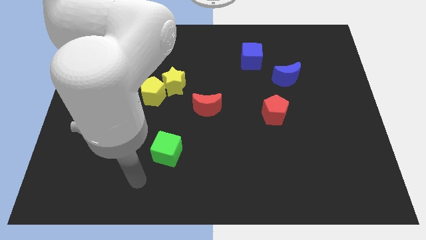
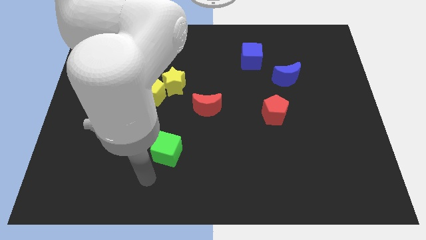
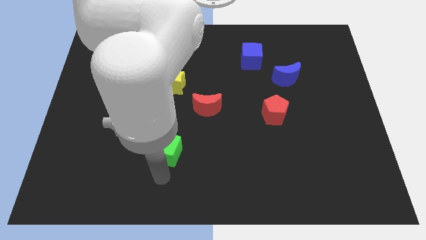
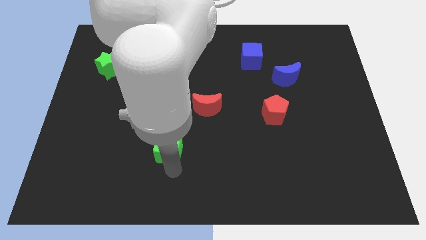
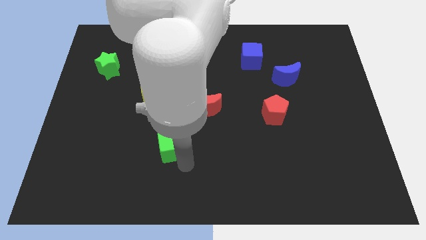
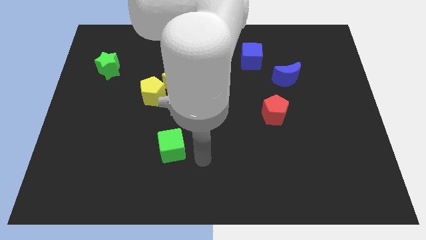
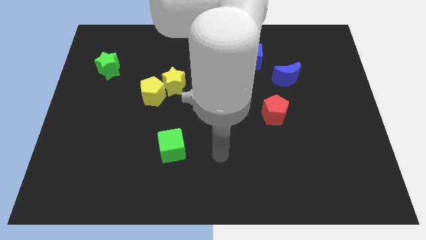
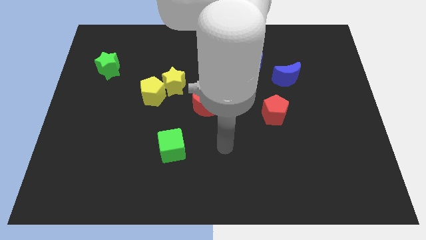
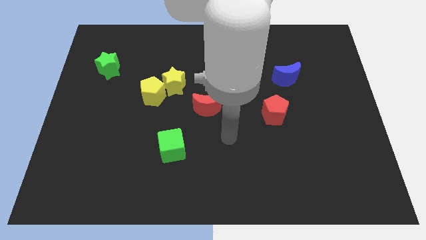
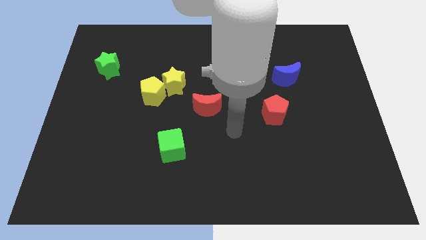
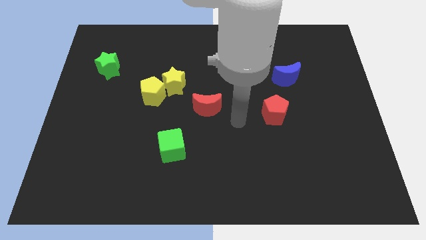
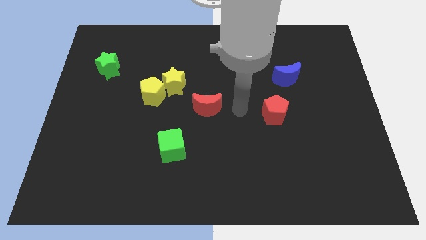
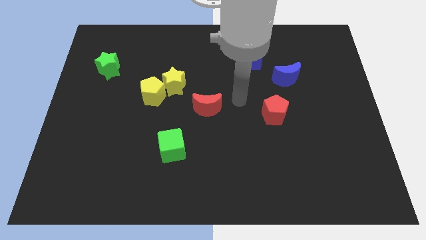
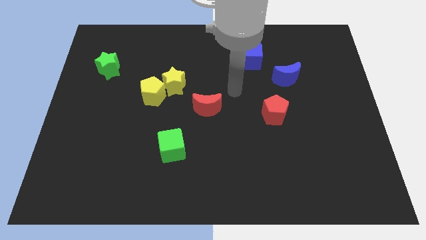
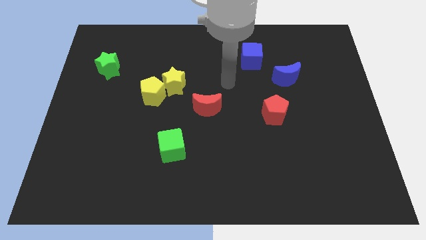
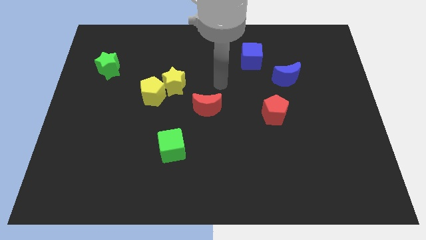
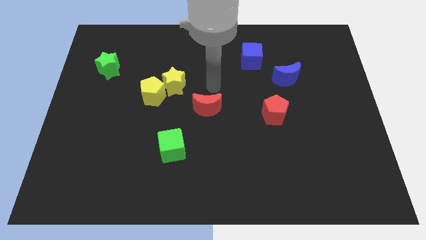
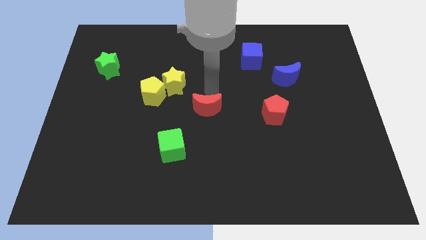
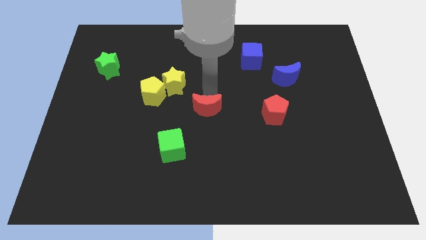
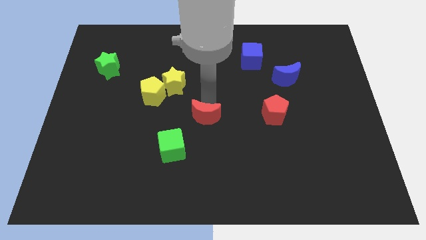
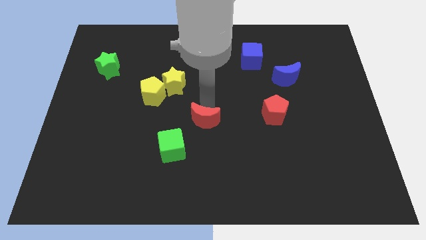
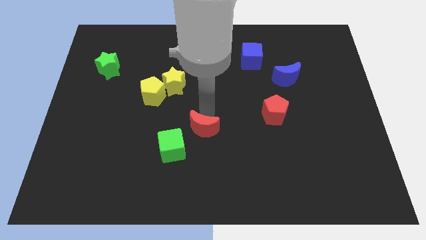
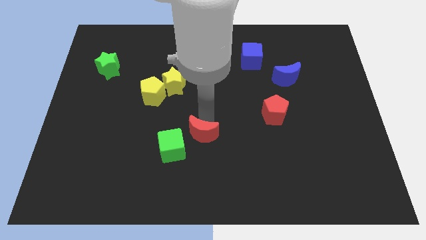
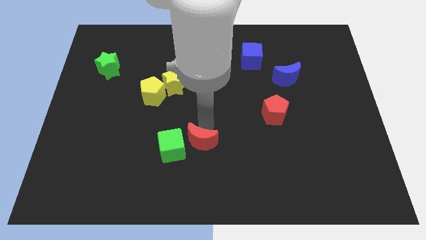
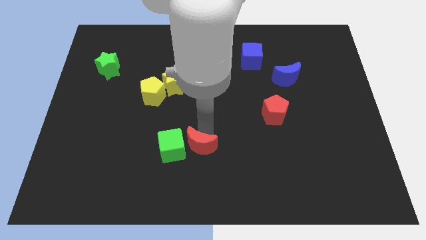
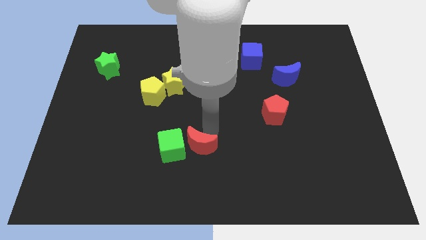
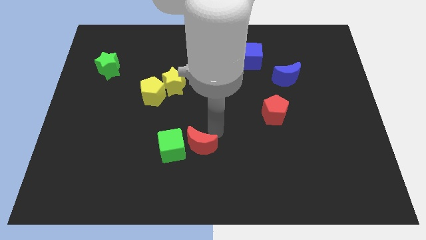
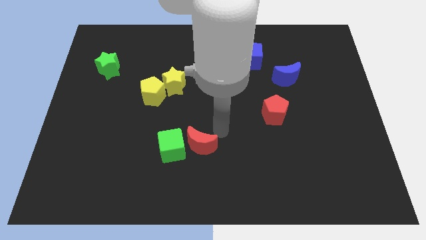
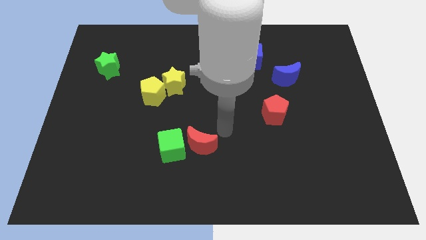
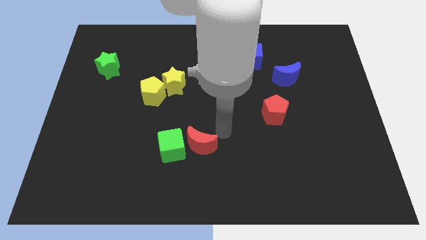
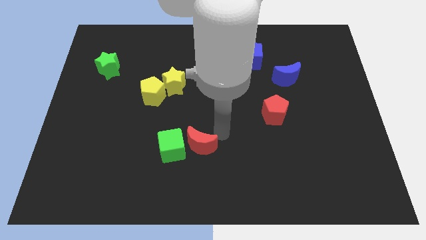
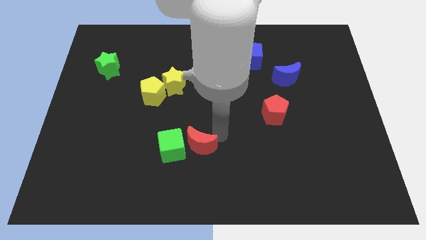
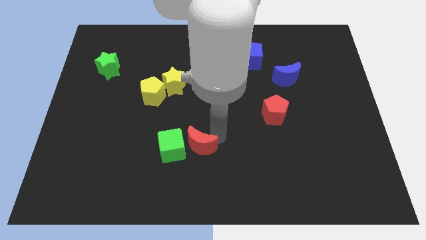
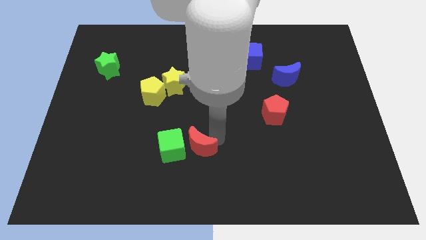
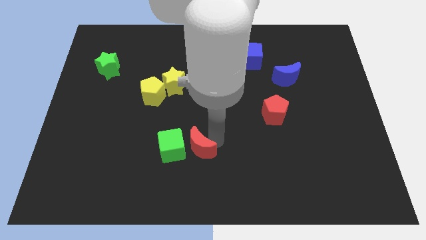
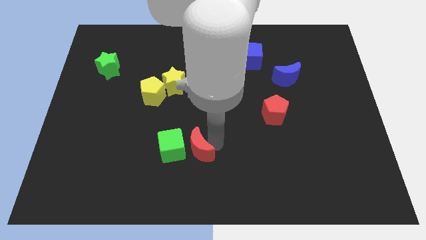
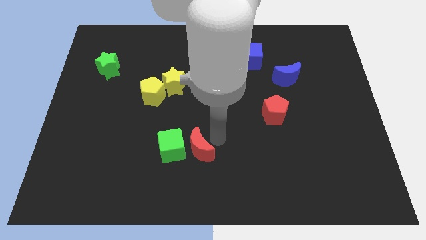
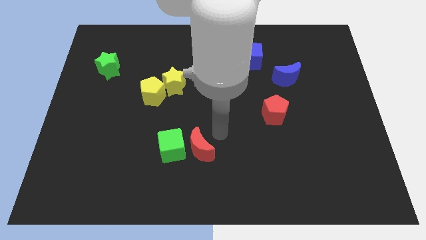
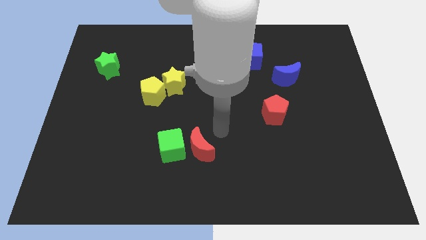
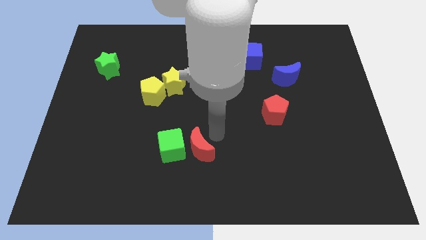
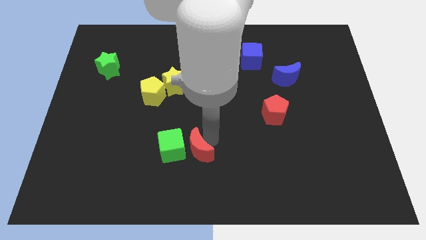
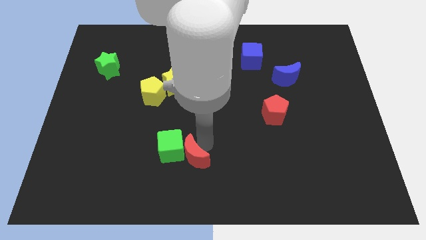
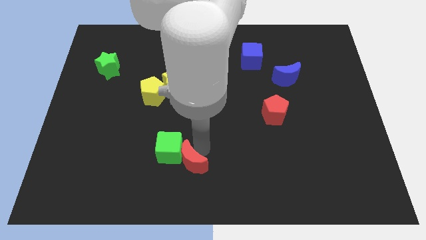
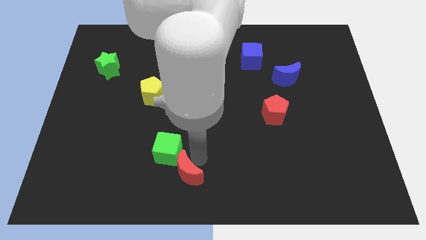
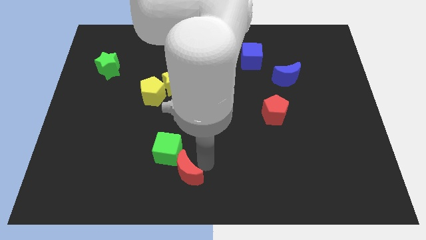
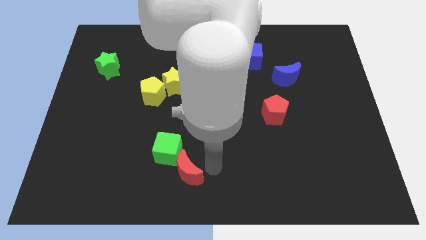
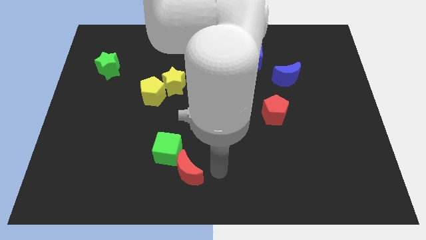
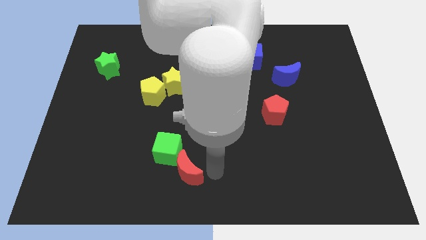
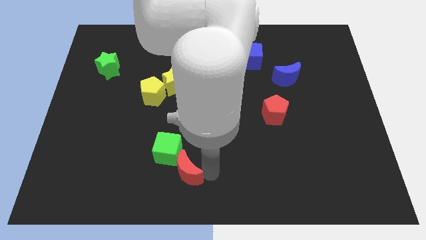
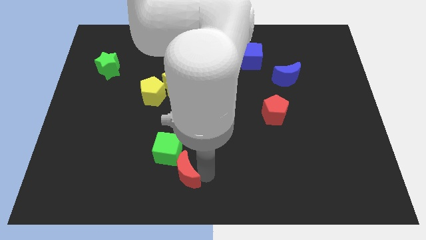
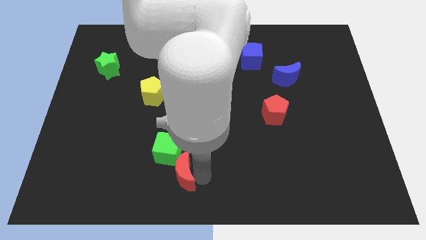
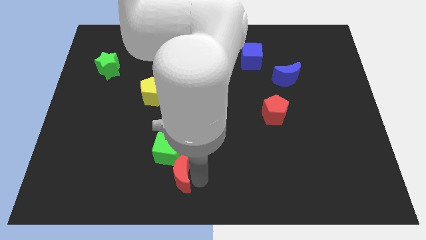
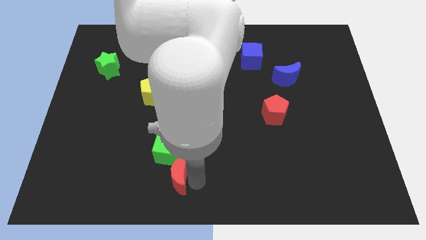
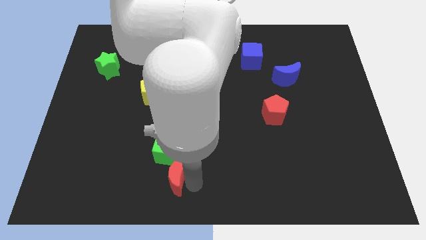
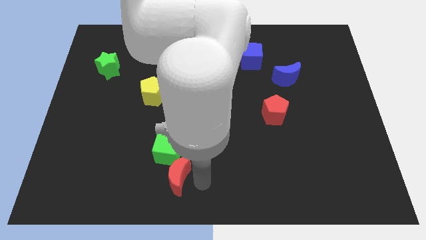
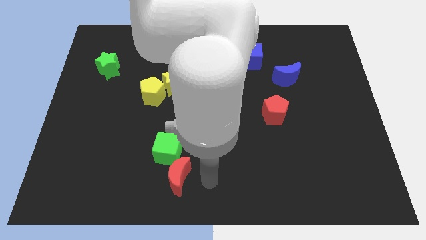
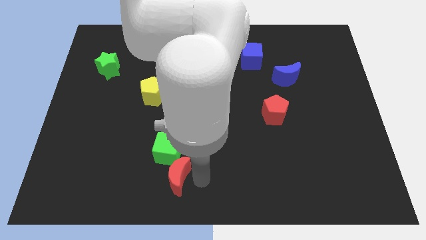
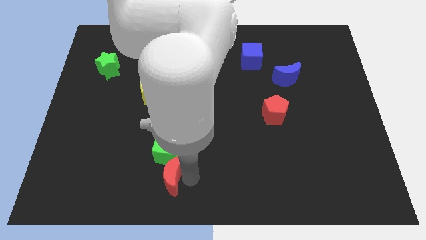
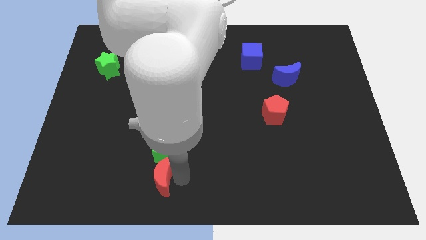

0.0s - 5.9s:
slide the red moon diagonally down and to the left of the green cube
